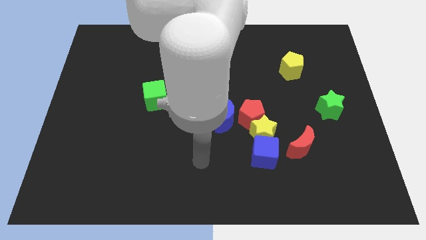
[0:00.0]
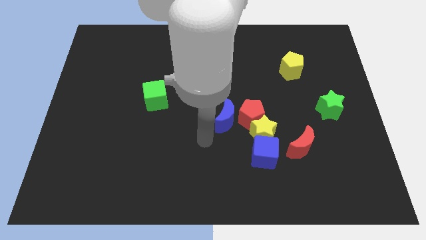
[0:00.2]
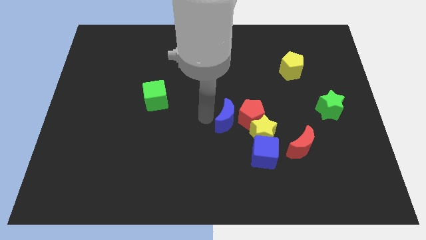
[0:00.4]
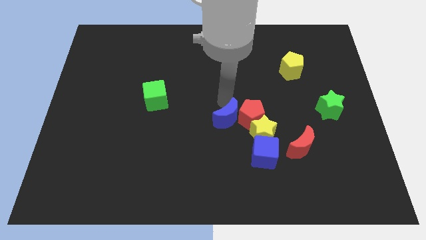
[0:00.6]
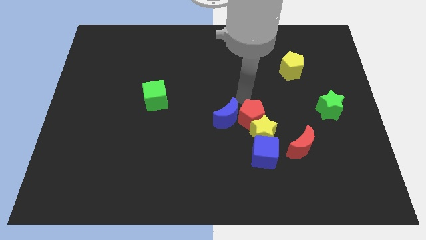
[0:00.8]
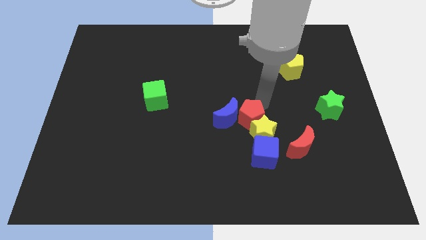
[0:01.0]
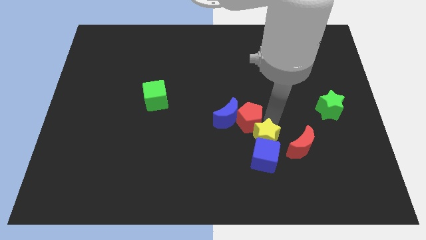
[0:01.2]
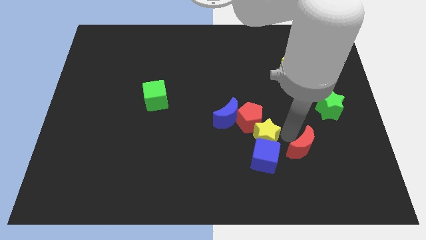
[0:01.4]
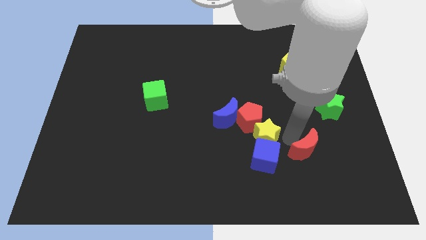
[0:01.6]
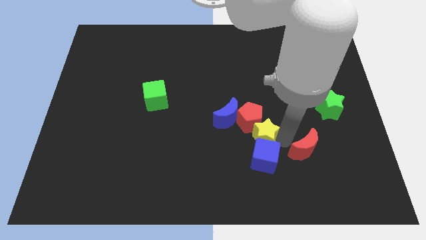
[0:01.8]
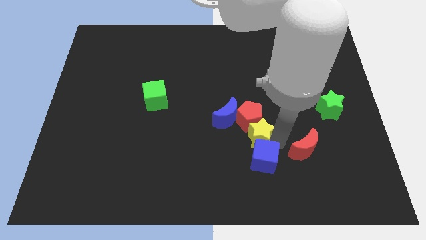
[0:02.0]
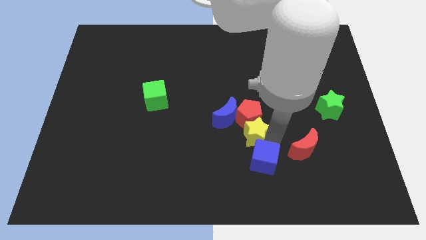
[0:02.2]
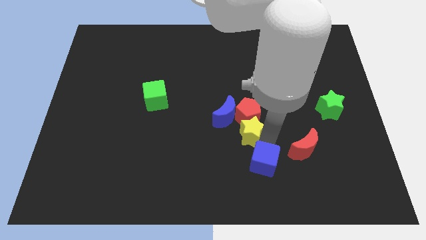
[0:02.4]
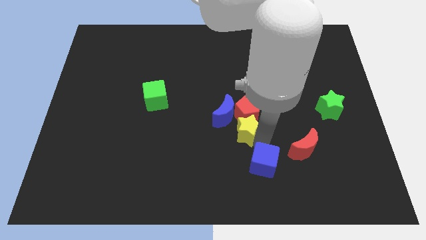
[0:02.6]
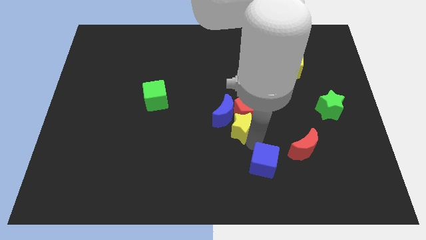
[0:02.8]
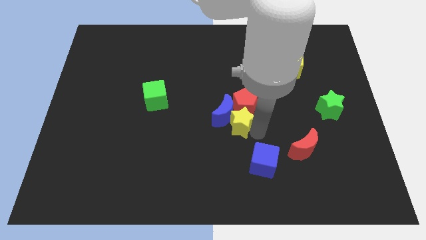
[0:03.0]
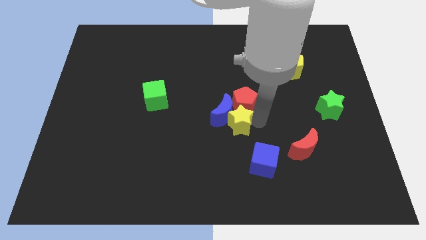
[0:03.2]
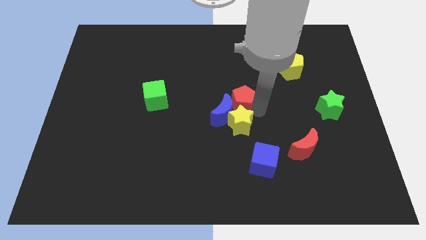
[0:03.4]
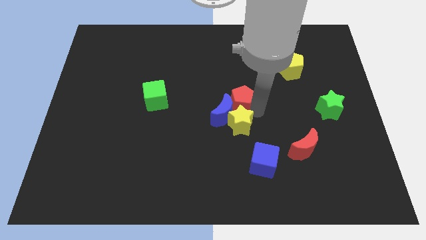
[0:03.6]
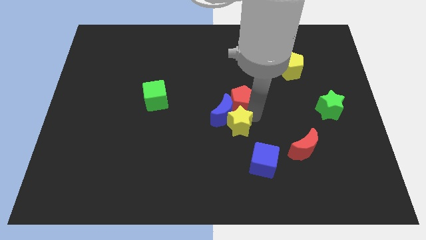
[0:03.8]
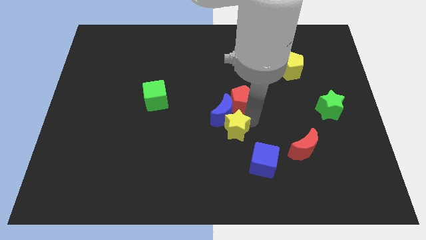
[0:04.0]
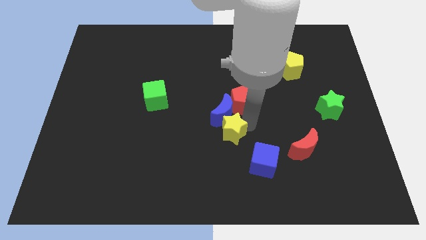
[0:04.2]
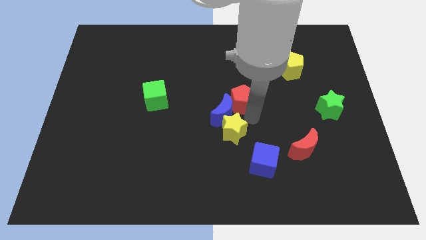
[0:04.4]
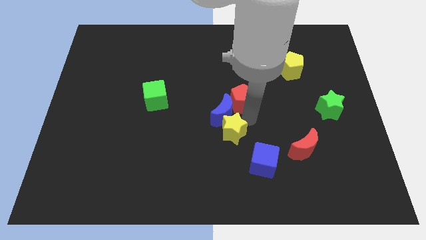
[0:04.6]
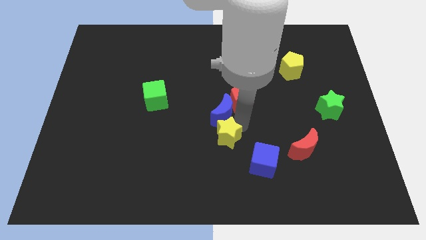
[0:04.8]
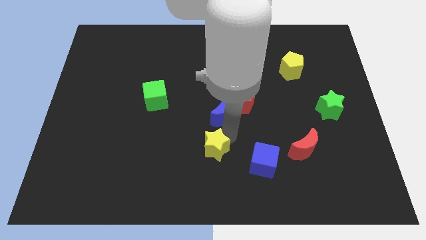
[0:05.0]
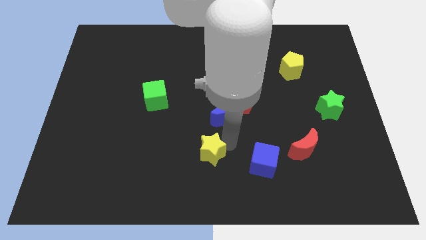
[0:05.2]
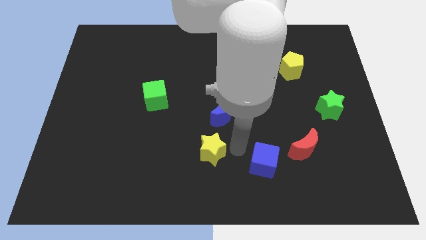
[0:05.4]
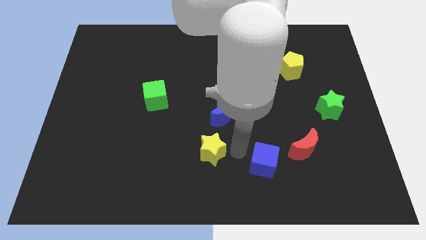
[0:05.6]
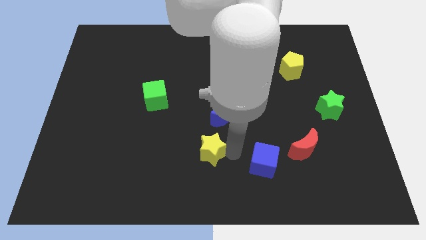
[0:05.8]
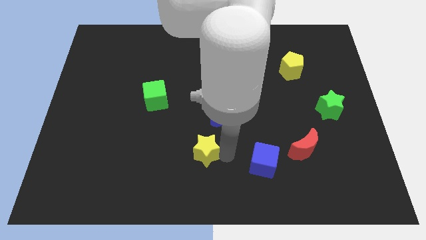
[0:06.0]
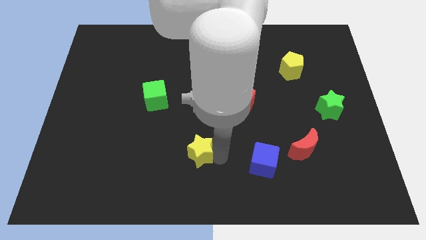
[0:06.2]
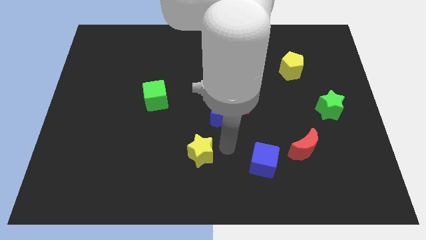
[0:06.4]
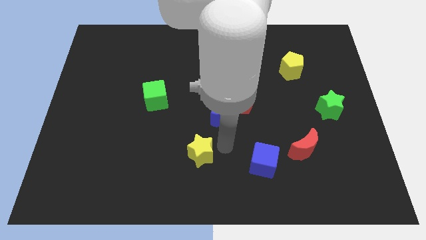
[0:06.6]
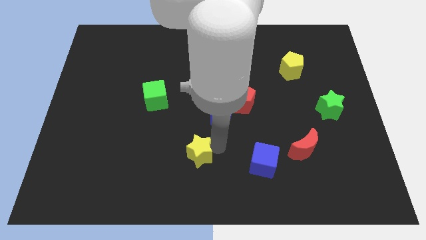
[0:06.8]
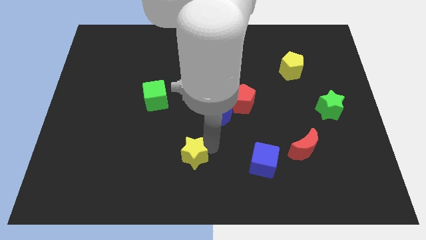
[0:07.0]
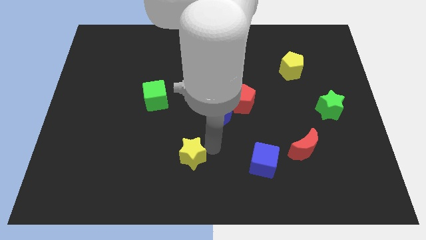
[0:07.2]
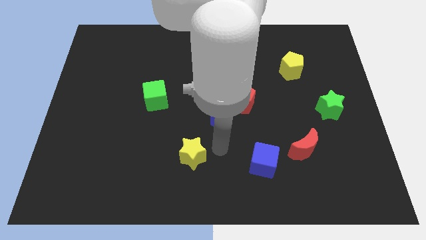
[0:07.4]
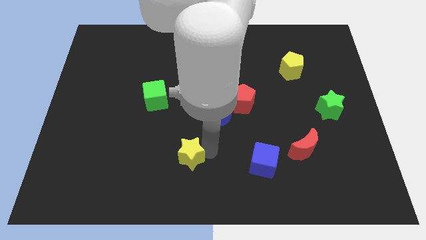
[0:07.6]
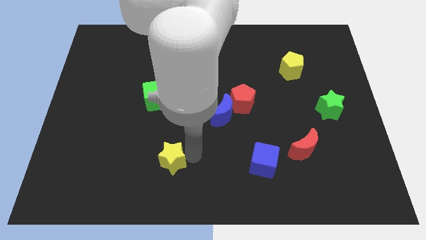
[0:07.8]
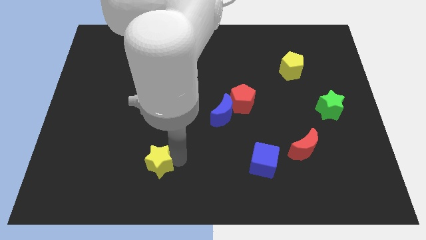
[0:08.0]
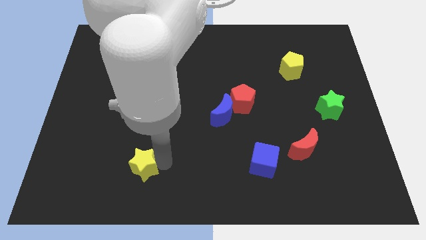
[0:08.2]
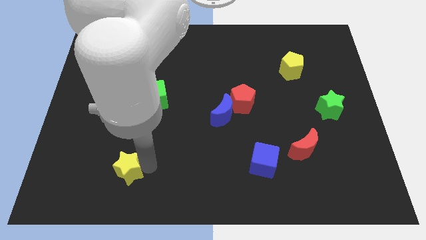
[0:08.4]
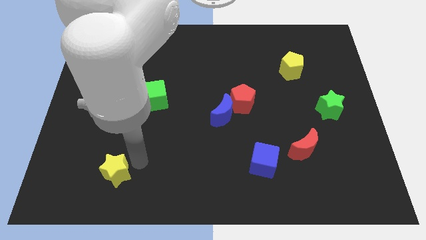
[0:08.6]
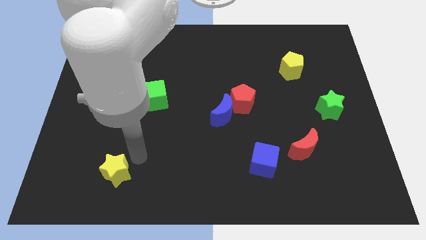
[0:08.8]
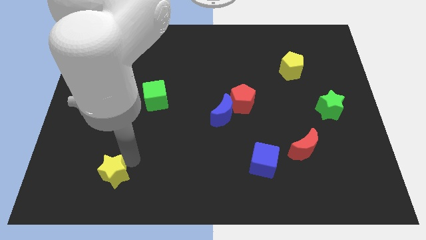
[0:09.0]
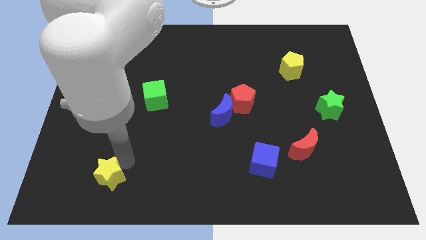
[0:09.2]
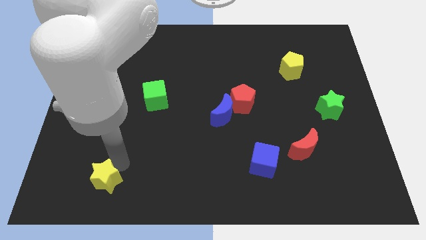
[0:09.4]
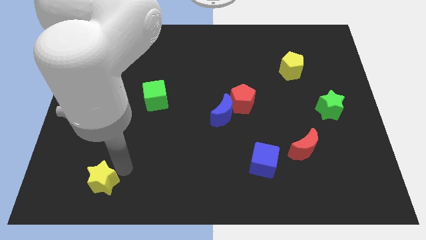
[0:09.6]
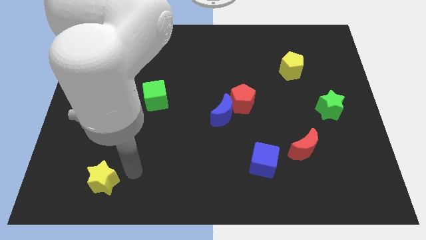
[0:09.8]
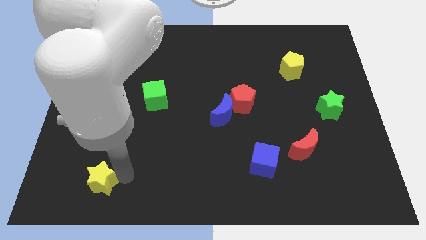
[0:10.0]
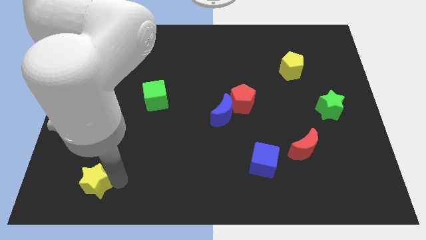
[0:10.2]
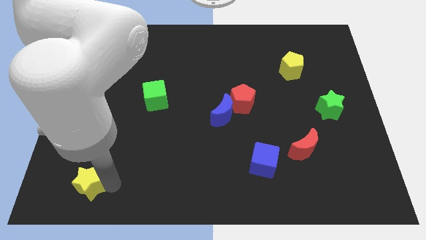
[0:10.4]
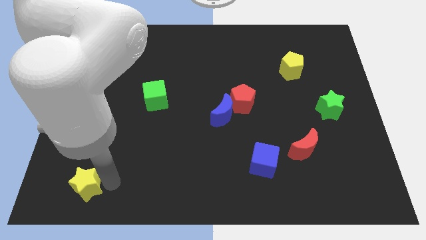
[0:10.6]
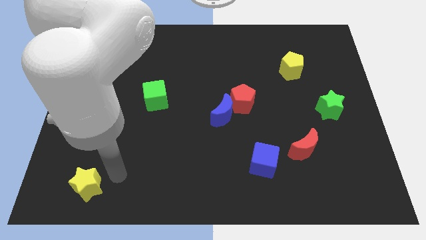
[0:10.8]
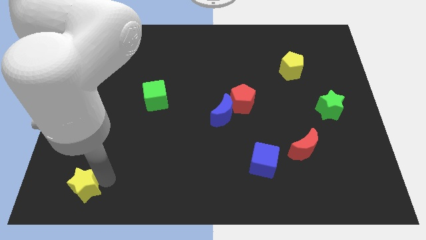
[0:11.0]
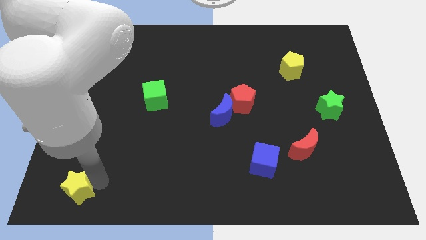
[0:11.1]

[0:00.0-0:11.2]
move the yellow star to the bottom left of the board

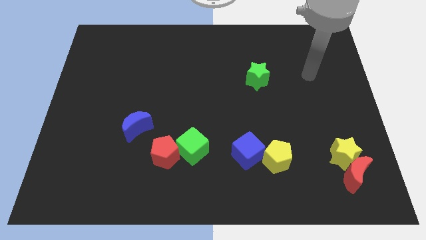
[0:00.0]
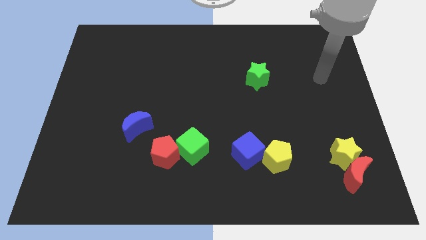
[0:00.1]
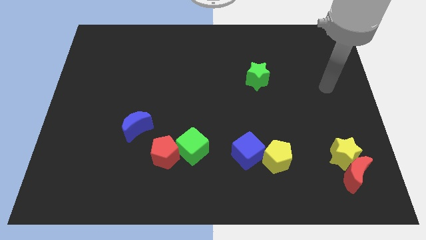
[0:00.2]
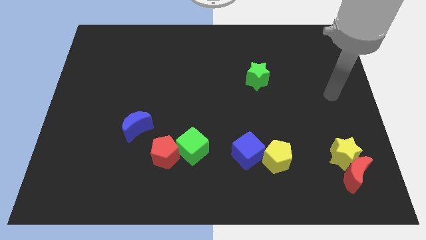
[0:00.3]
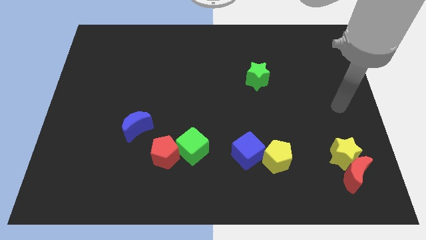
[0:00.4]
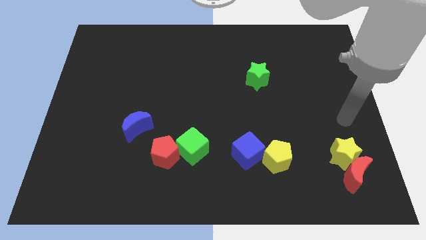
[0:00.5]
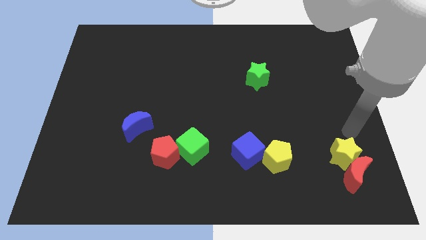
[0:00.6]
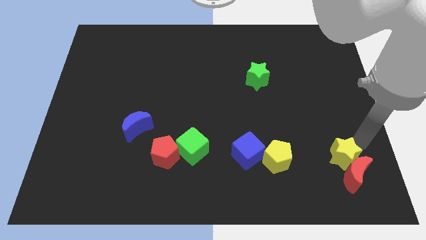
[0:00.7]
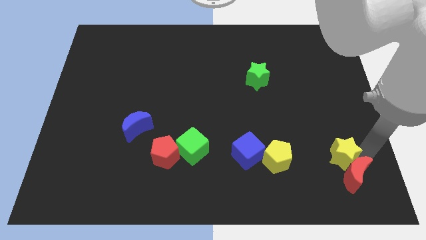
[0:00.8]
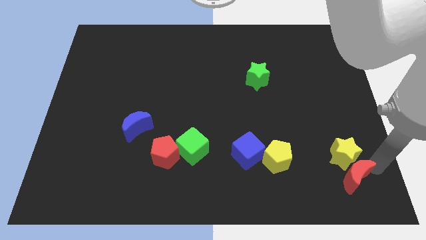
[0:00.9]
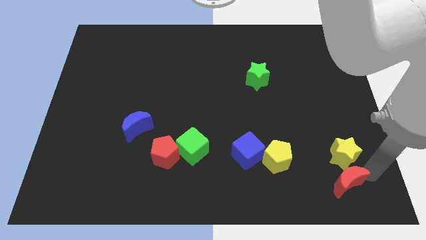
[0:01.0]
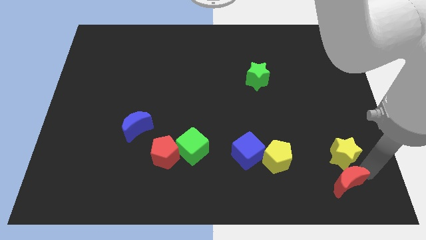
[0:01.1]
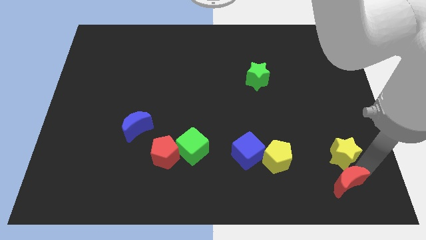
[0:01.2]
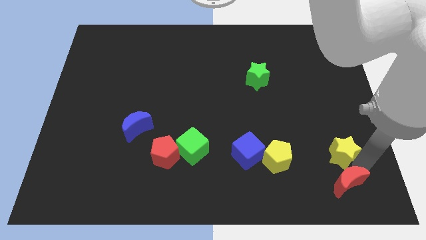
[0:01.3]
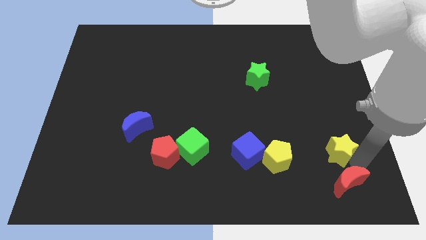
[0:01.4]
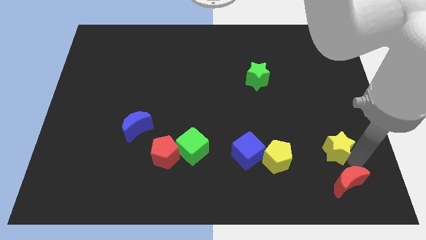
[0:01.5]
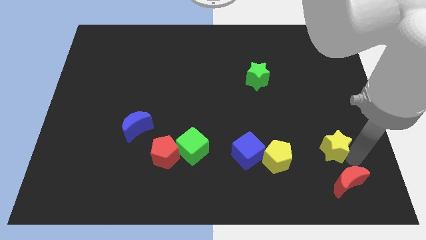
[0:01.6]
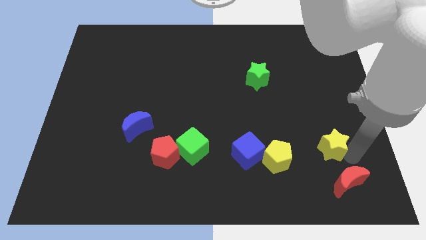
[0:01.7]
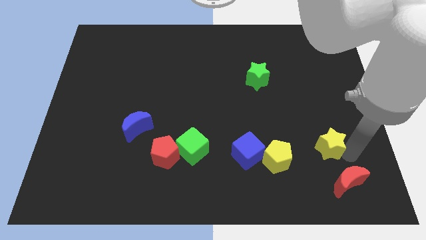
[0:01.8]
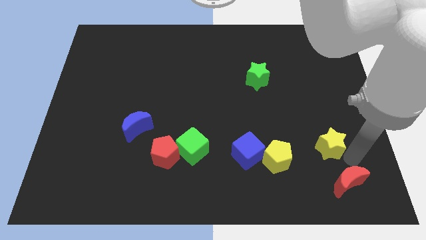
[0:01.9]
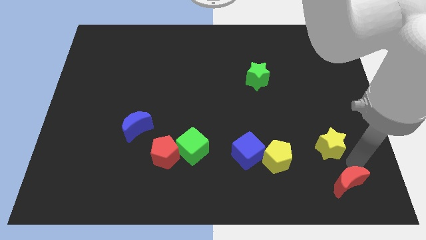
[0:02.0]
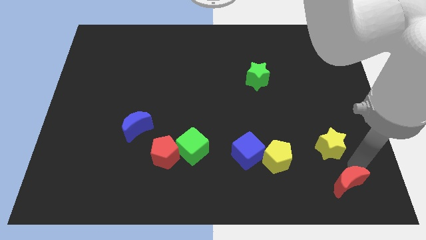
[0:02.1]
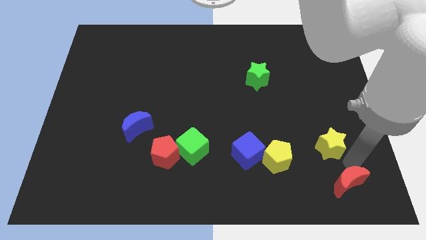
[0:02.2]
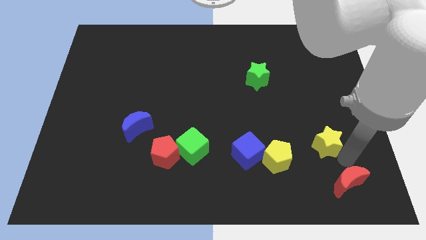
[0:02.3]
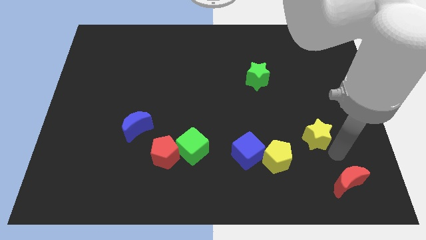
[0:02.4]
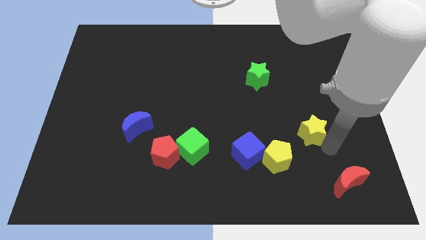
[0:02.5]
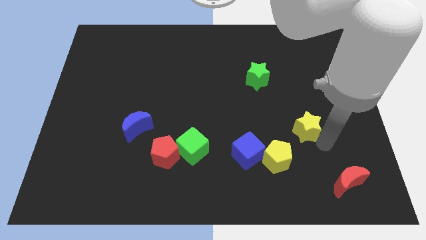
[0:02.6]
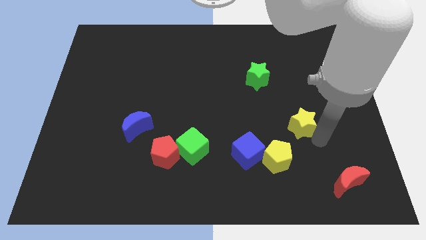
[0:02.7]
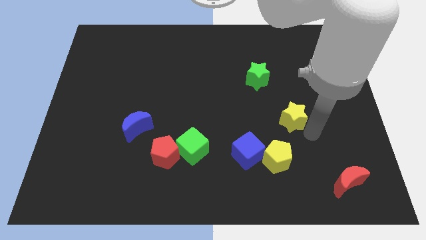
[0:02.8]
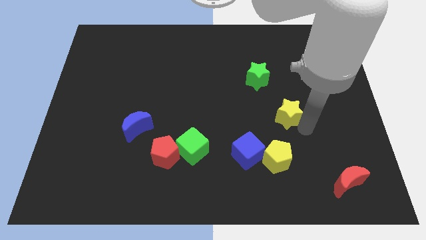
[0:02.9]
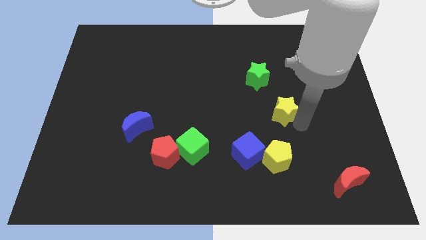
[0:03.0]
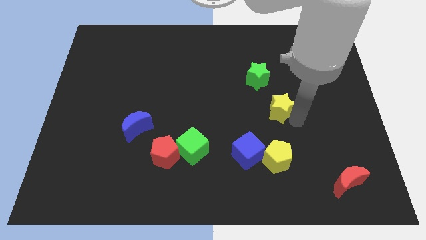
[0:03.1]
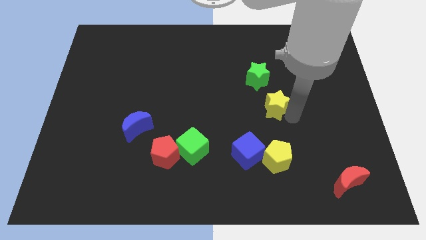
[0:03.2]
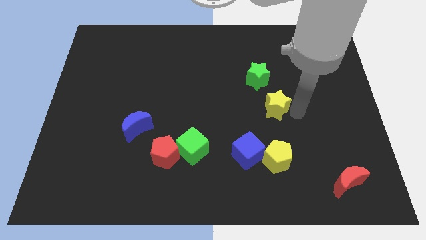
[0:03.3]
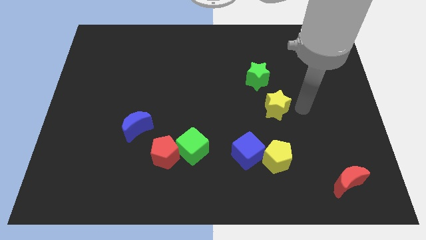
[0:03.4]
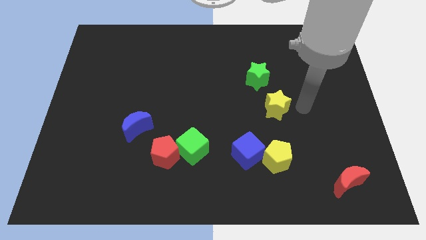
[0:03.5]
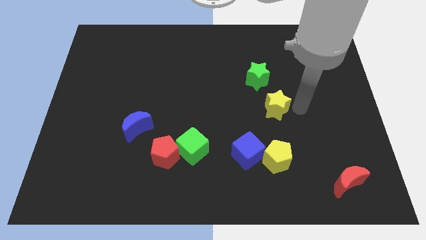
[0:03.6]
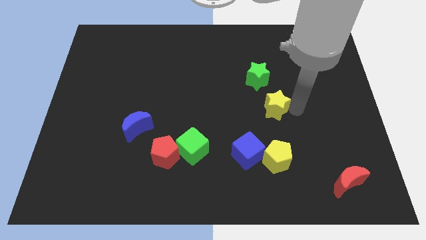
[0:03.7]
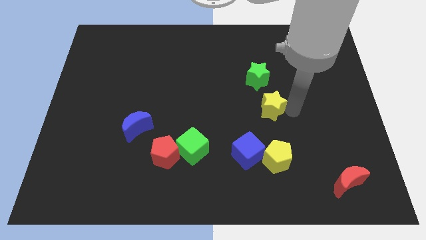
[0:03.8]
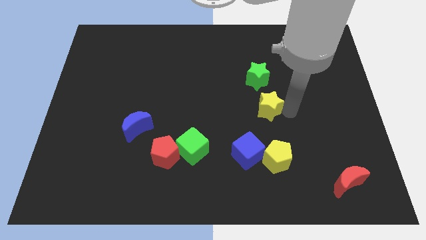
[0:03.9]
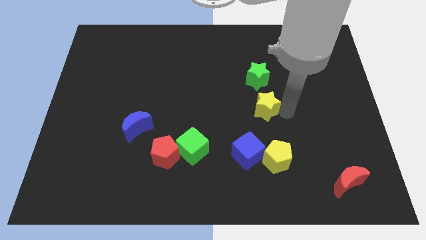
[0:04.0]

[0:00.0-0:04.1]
push the yellow star to the center
